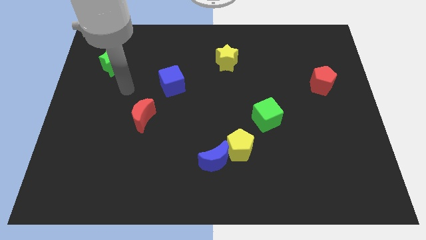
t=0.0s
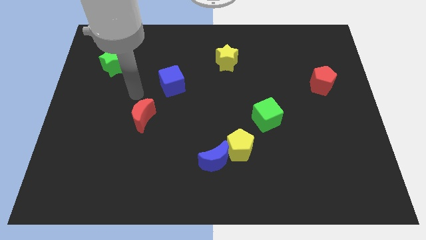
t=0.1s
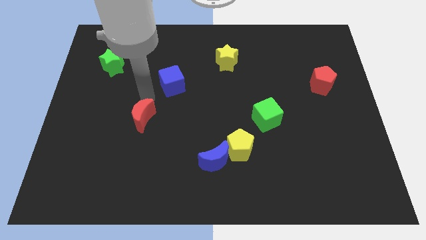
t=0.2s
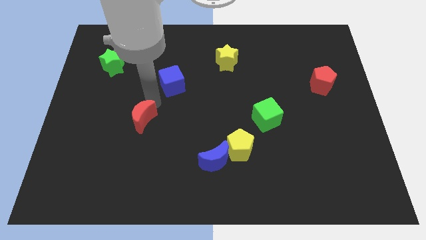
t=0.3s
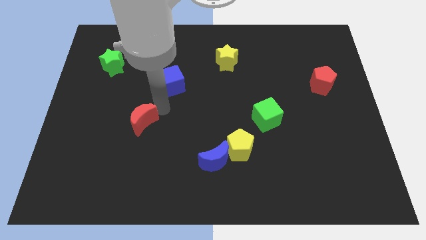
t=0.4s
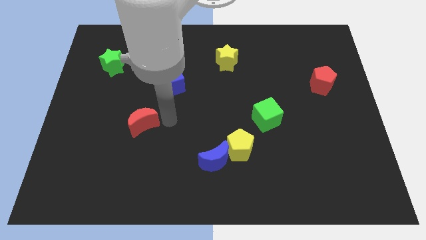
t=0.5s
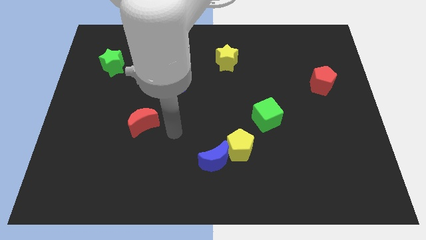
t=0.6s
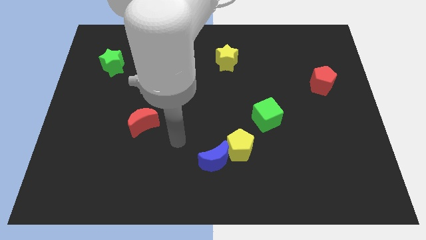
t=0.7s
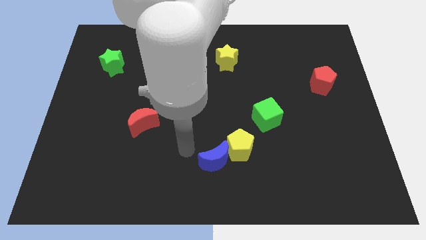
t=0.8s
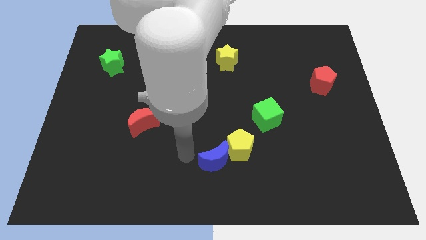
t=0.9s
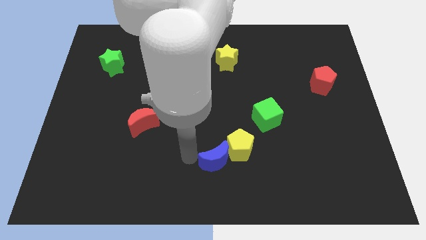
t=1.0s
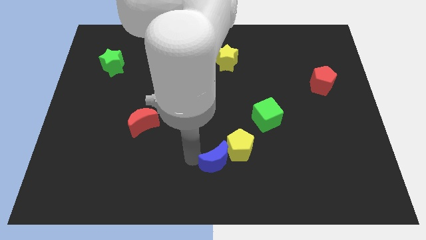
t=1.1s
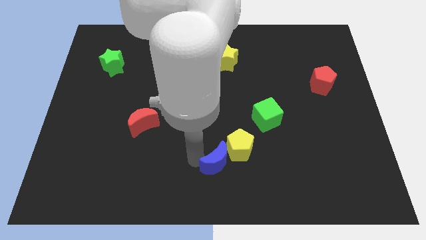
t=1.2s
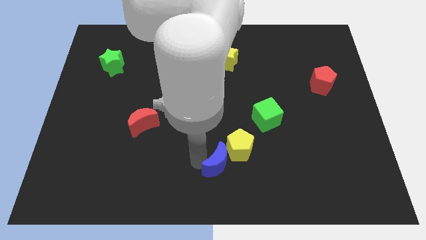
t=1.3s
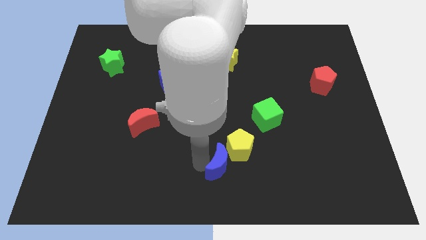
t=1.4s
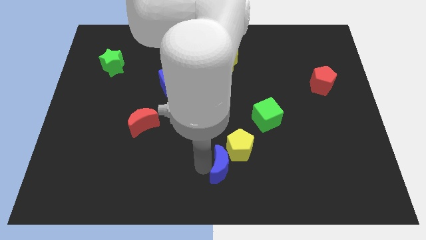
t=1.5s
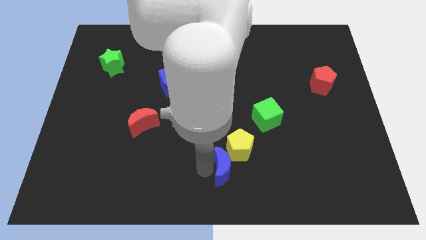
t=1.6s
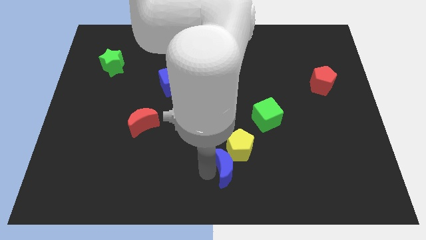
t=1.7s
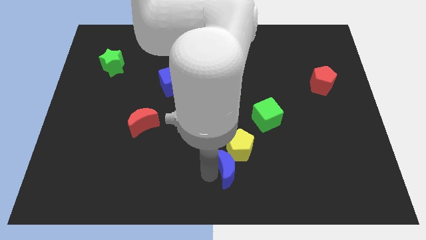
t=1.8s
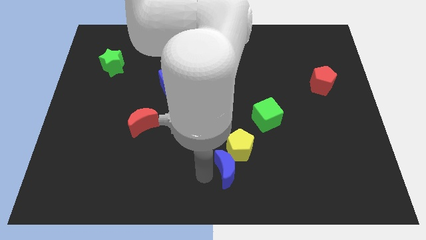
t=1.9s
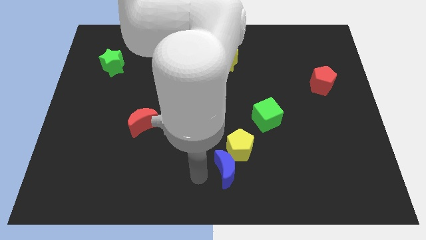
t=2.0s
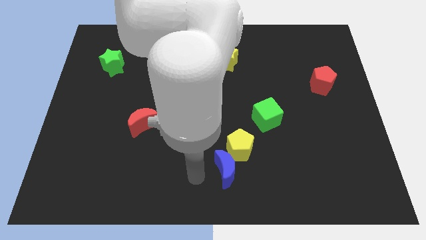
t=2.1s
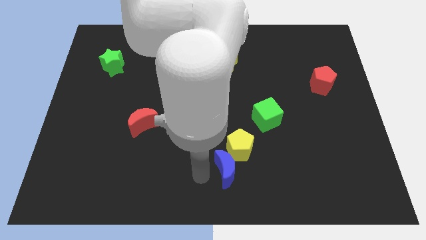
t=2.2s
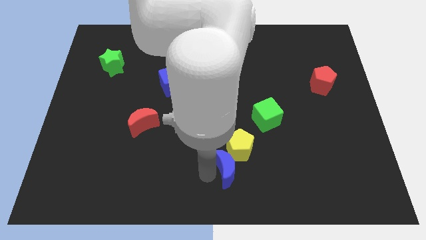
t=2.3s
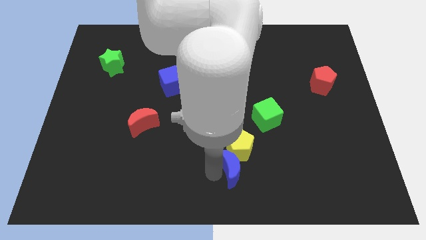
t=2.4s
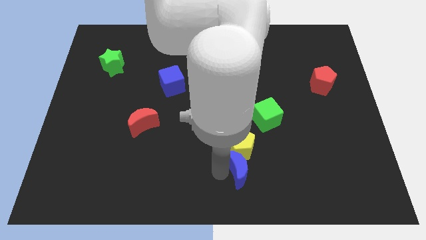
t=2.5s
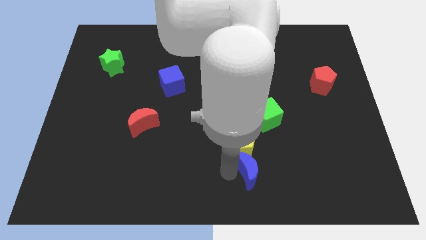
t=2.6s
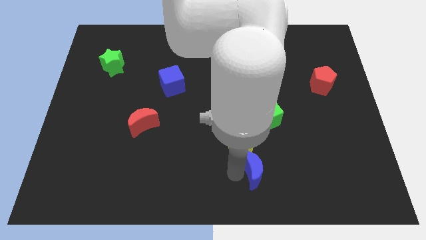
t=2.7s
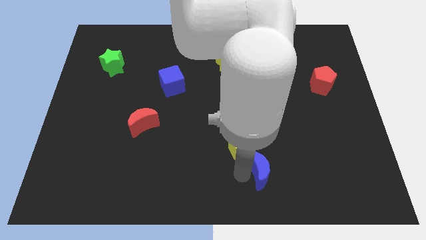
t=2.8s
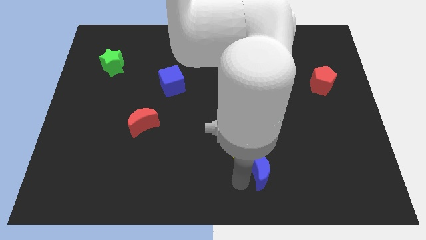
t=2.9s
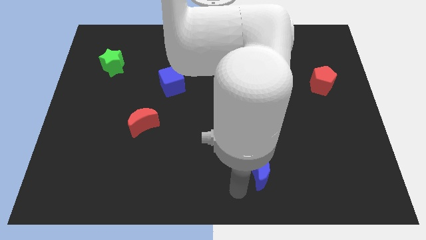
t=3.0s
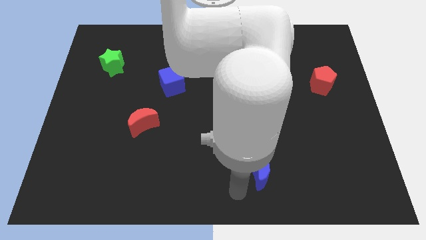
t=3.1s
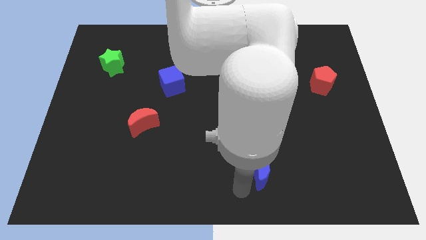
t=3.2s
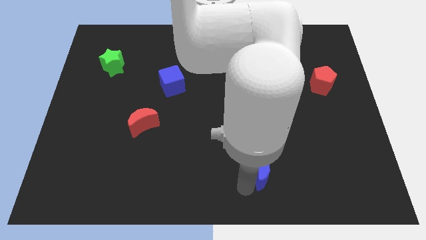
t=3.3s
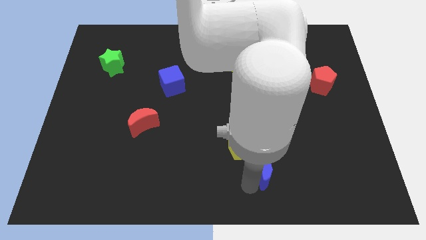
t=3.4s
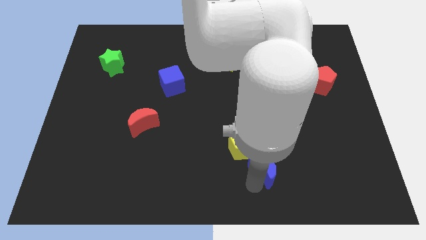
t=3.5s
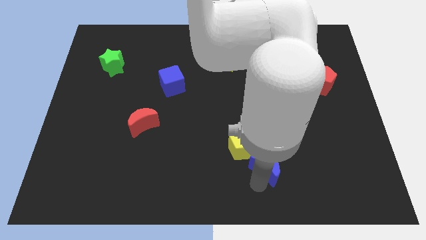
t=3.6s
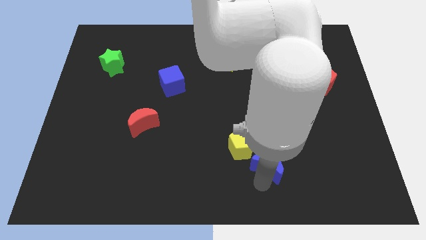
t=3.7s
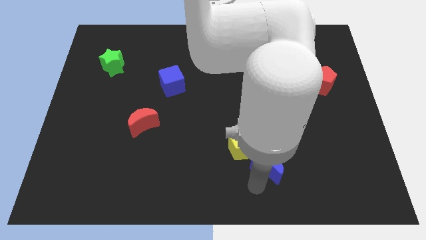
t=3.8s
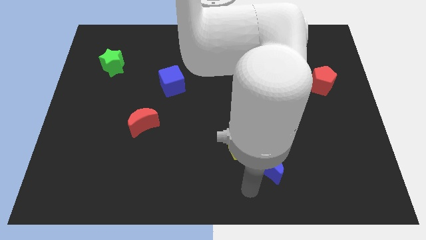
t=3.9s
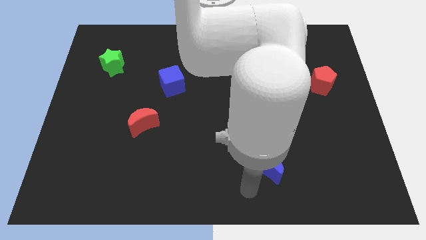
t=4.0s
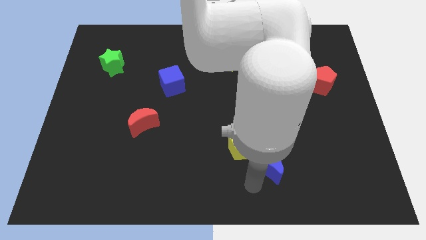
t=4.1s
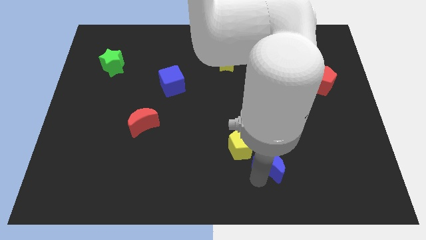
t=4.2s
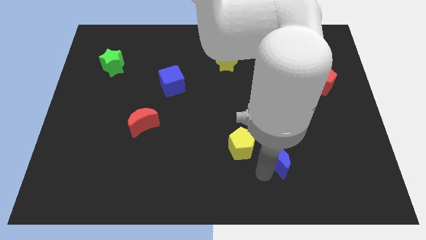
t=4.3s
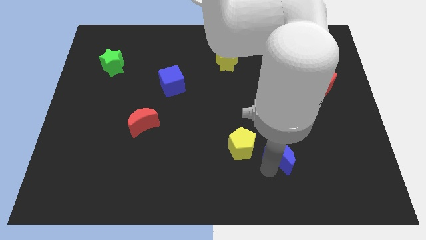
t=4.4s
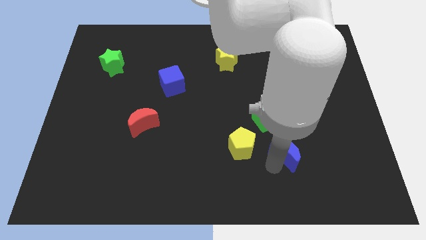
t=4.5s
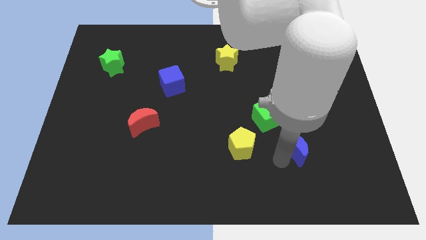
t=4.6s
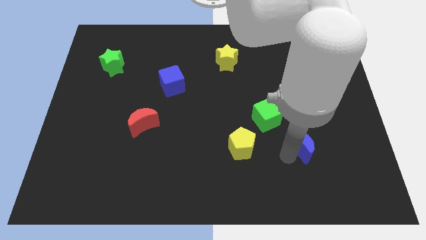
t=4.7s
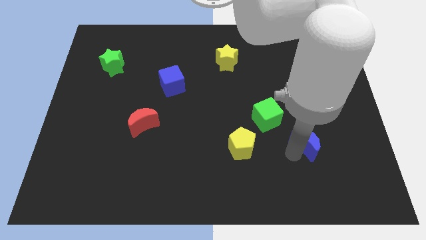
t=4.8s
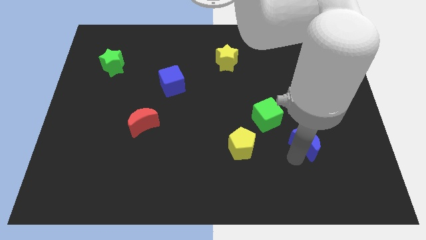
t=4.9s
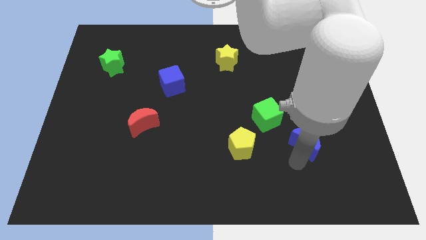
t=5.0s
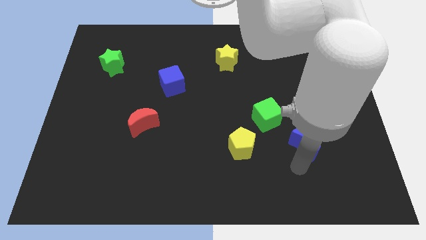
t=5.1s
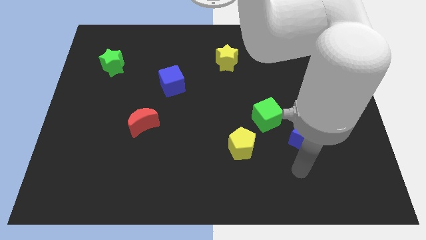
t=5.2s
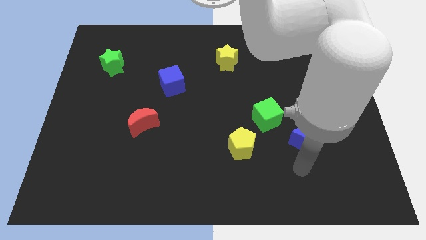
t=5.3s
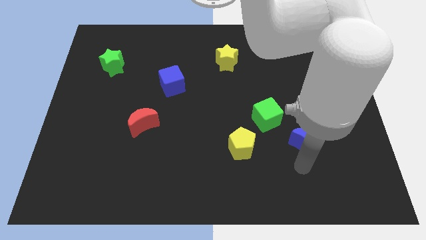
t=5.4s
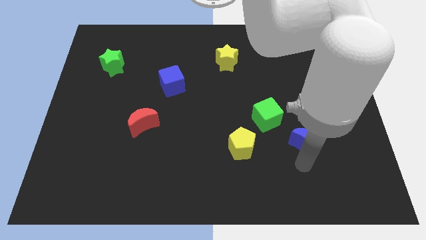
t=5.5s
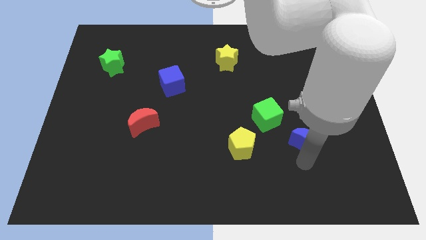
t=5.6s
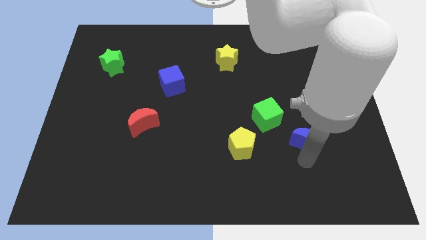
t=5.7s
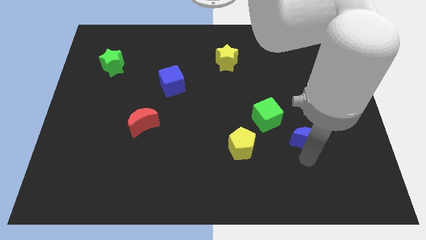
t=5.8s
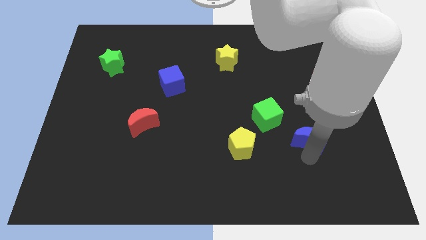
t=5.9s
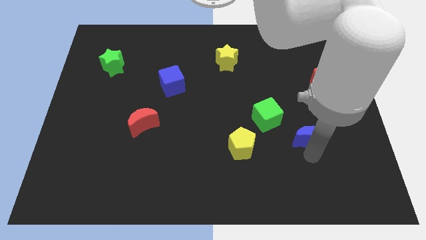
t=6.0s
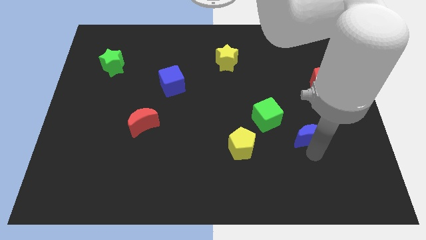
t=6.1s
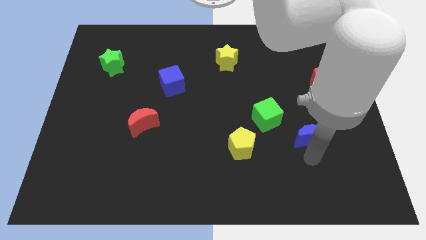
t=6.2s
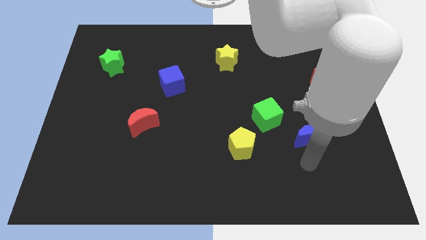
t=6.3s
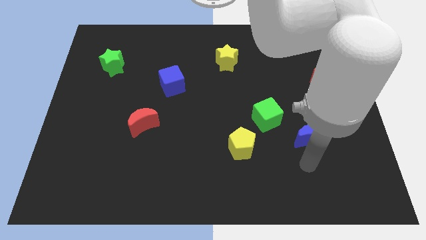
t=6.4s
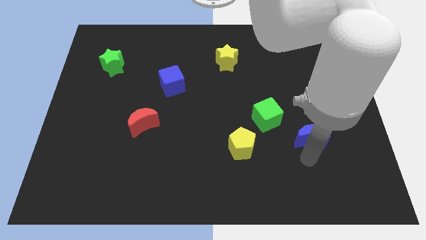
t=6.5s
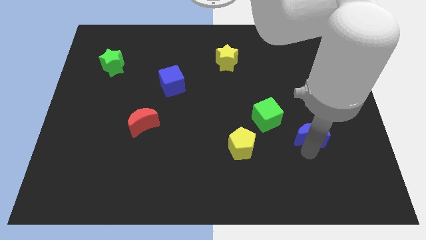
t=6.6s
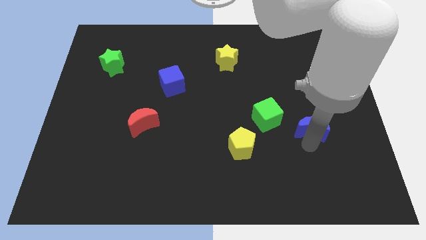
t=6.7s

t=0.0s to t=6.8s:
move the blue moon to the right side of the green cube

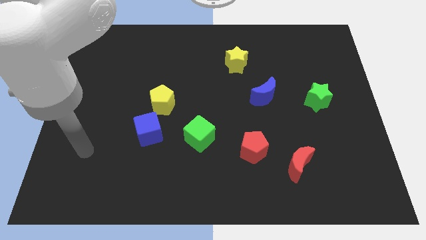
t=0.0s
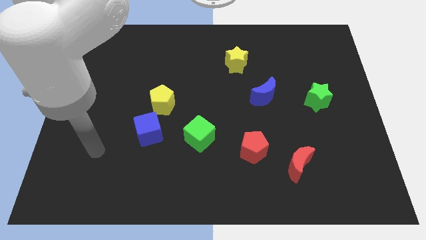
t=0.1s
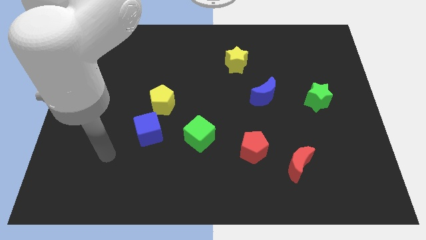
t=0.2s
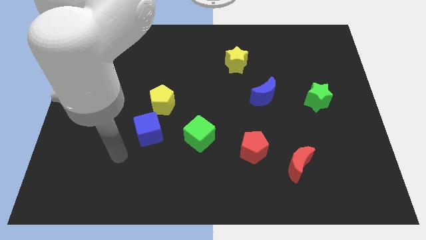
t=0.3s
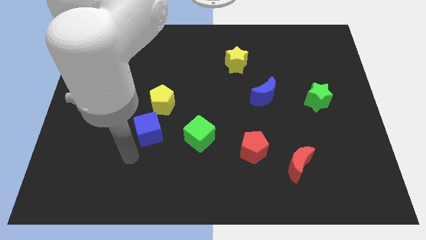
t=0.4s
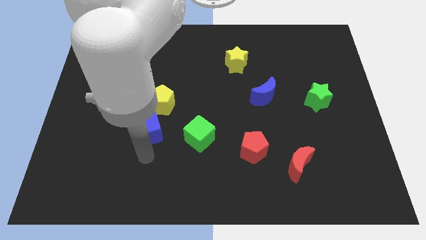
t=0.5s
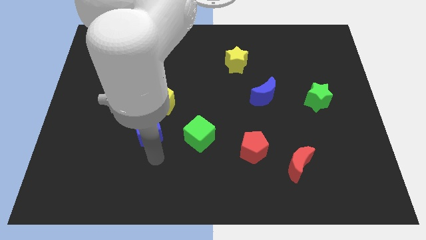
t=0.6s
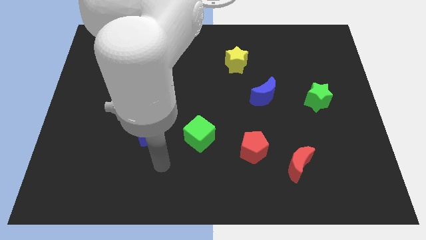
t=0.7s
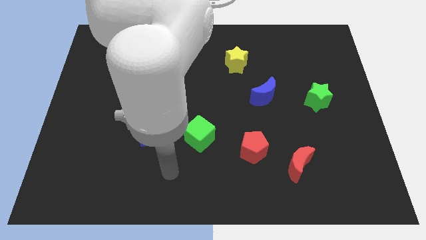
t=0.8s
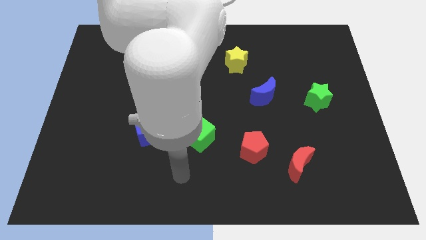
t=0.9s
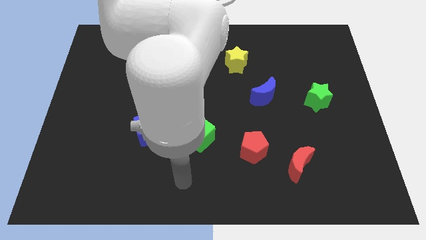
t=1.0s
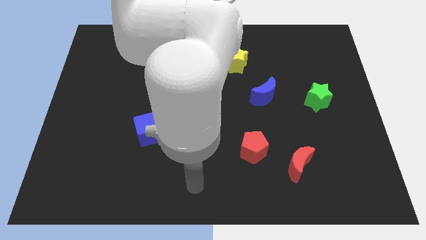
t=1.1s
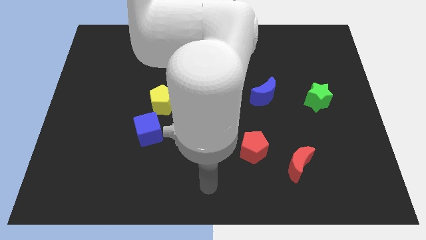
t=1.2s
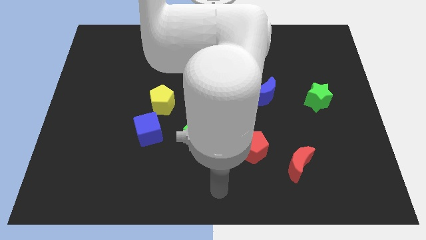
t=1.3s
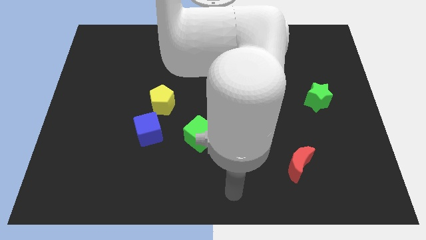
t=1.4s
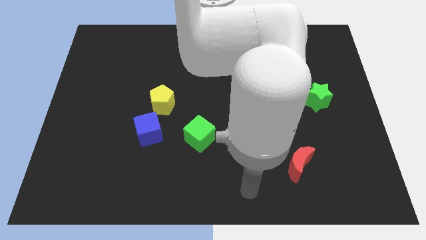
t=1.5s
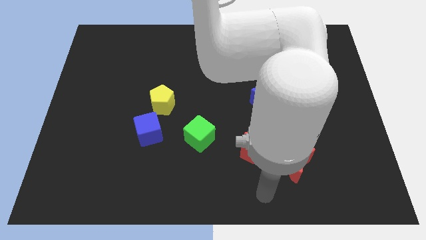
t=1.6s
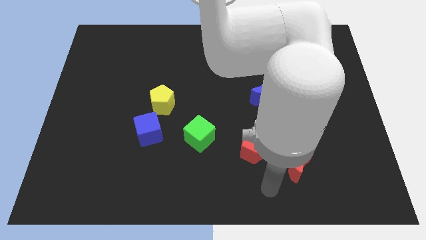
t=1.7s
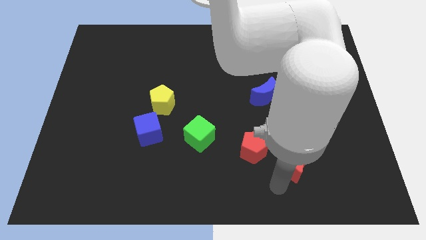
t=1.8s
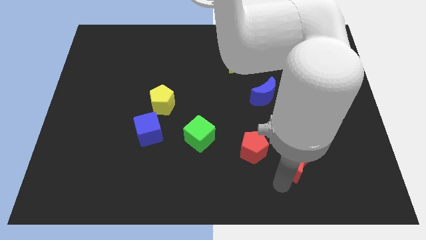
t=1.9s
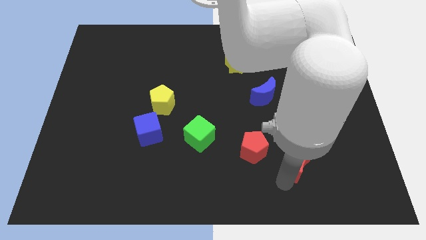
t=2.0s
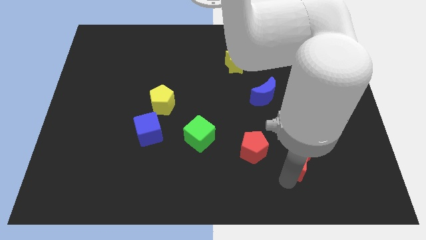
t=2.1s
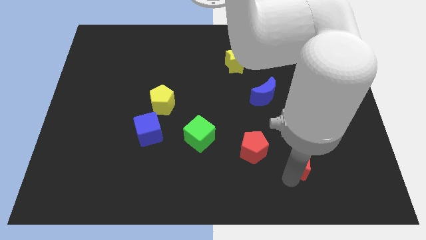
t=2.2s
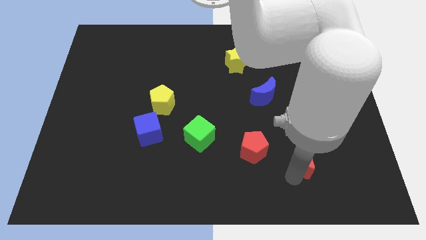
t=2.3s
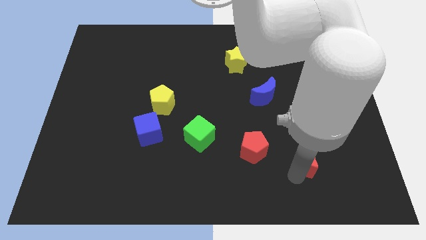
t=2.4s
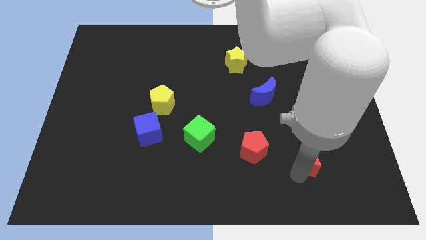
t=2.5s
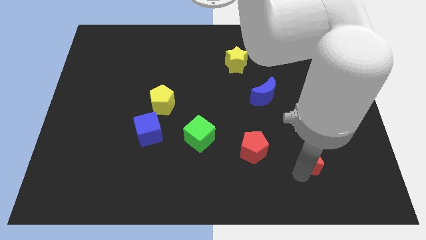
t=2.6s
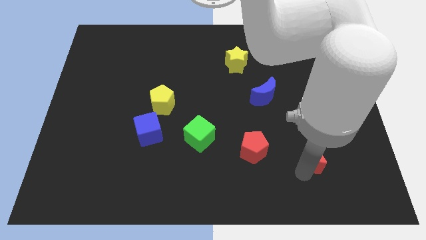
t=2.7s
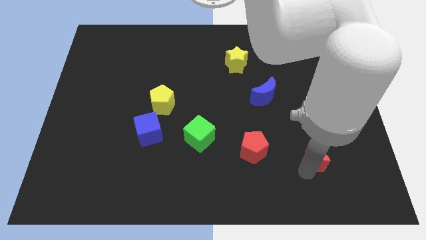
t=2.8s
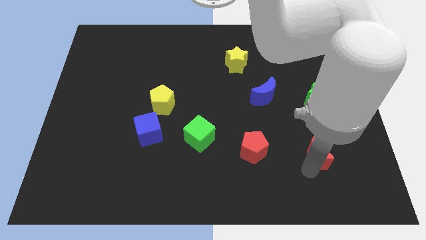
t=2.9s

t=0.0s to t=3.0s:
put the red moon to the bottom of the green star
